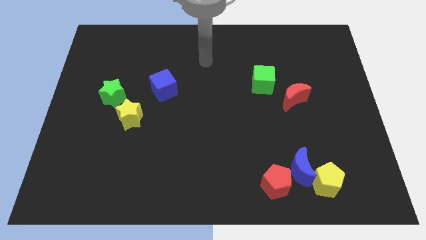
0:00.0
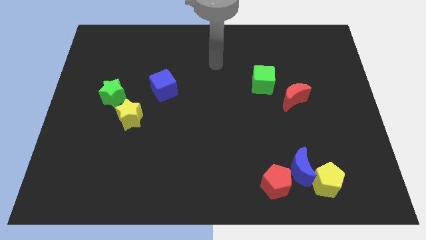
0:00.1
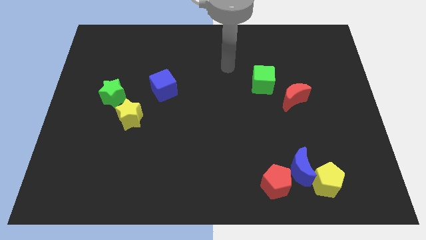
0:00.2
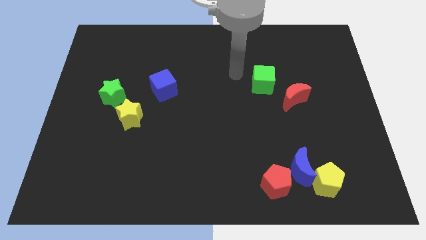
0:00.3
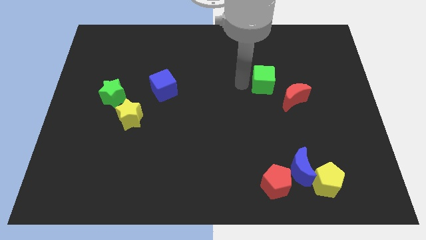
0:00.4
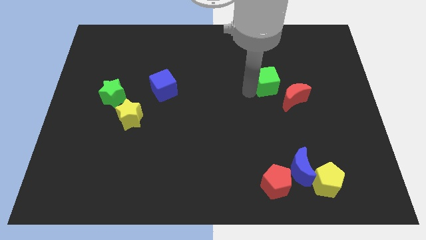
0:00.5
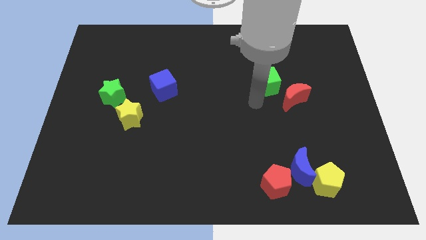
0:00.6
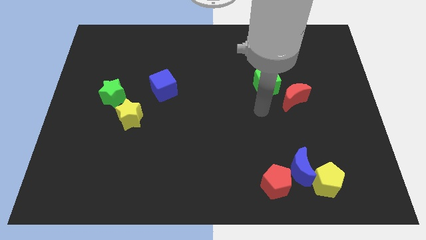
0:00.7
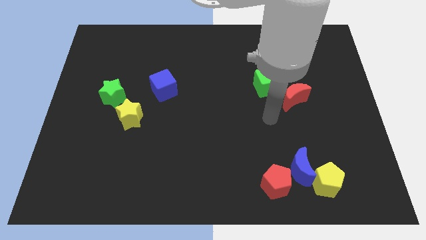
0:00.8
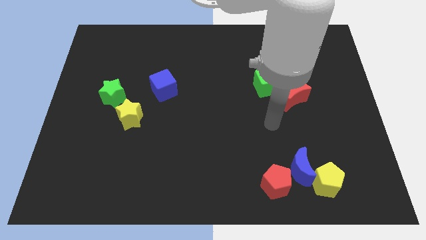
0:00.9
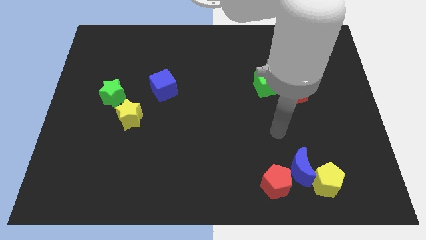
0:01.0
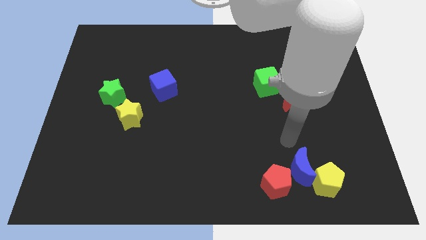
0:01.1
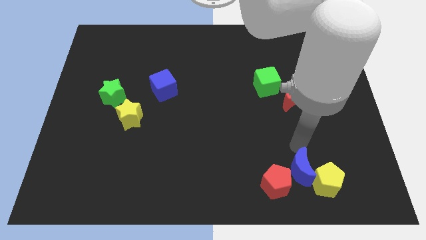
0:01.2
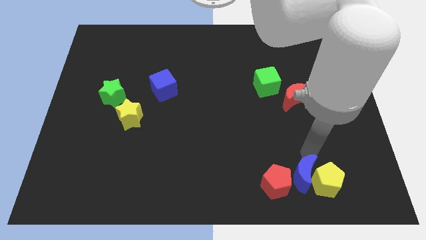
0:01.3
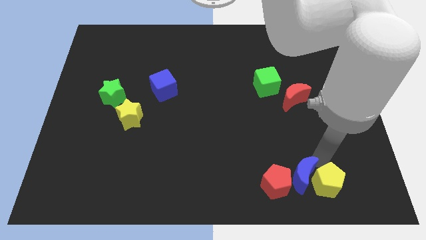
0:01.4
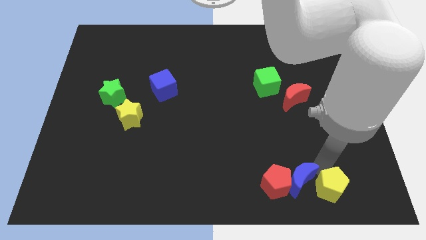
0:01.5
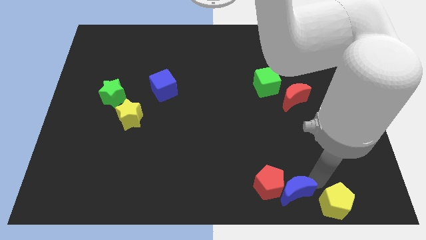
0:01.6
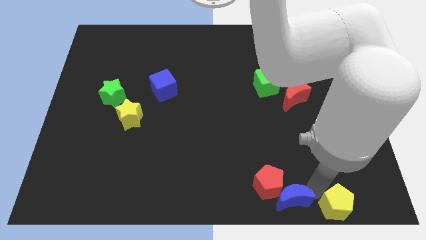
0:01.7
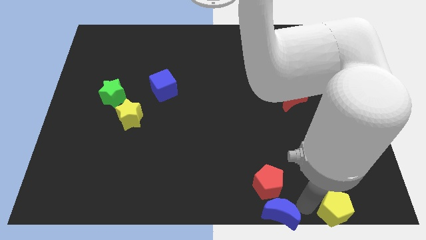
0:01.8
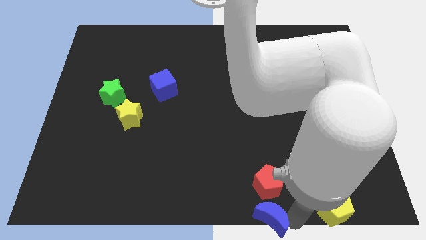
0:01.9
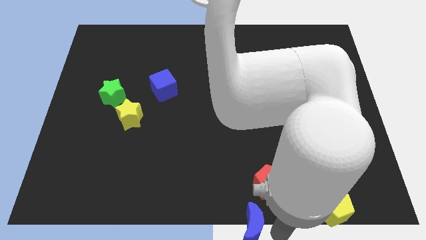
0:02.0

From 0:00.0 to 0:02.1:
separate the blue moon from the yellow pentagon and red pentagon

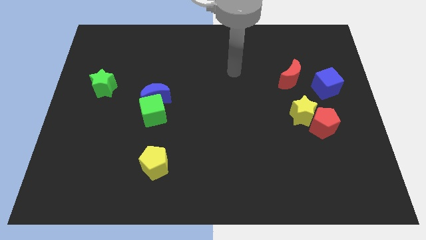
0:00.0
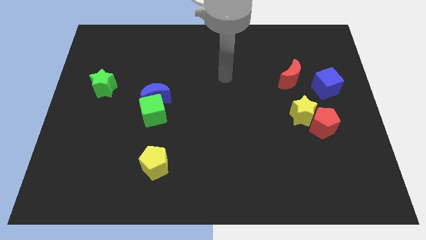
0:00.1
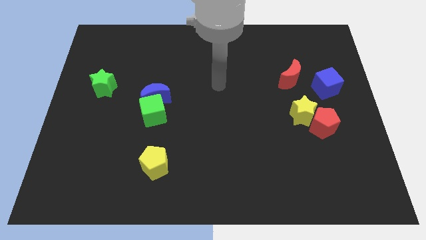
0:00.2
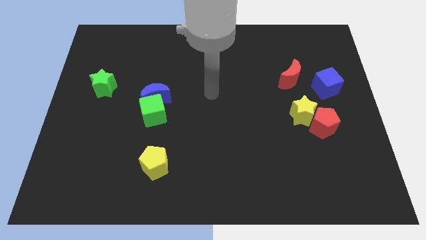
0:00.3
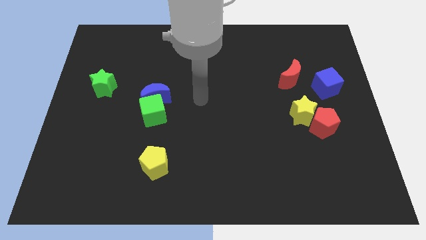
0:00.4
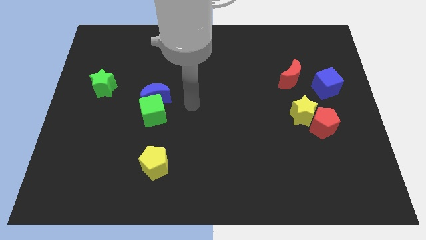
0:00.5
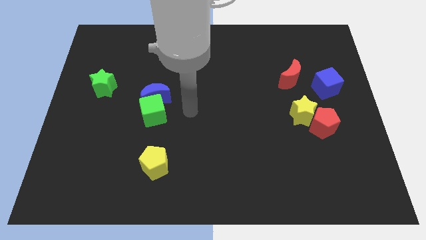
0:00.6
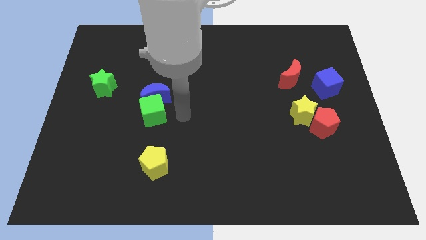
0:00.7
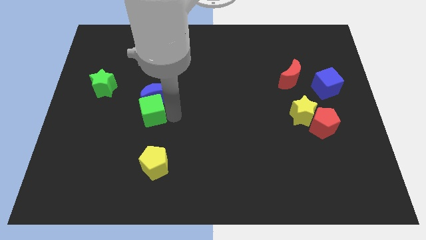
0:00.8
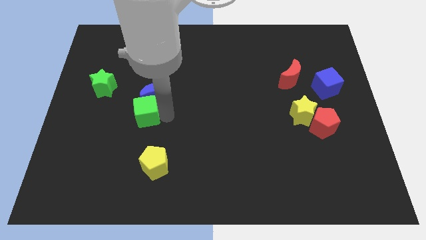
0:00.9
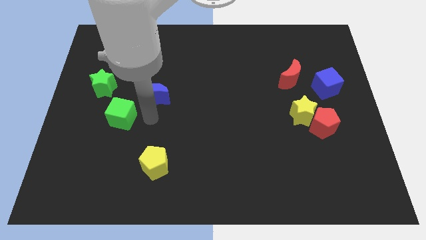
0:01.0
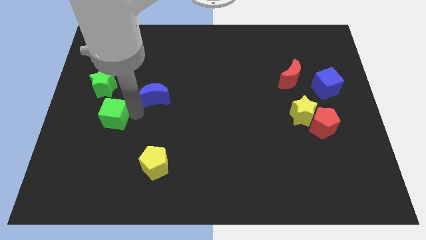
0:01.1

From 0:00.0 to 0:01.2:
move the blue moon away from the green cube

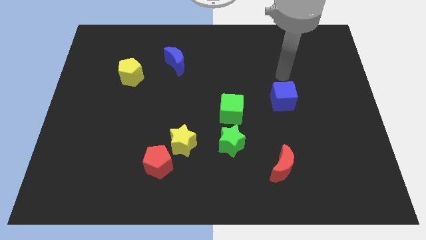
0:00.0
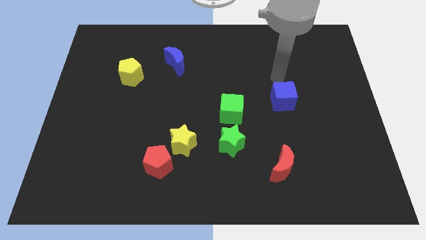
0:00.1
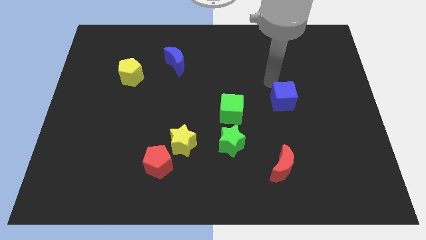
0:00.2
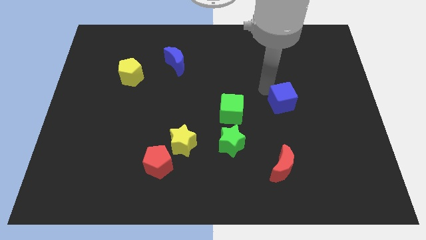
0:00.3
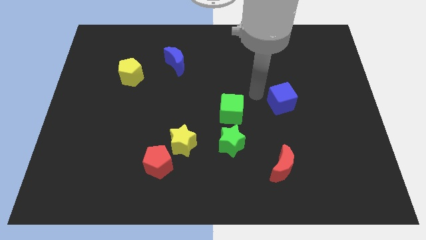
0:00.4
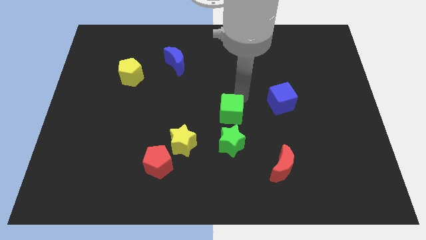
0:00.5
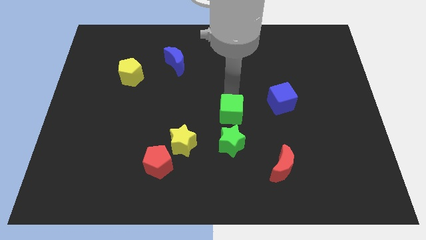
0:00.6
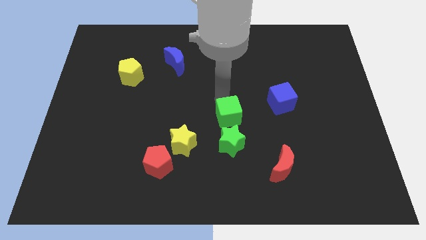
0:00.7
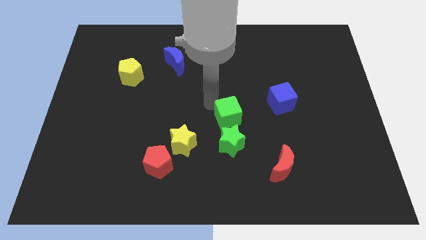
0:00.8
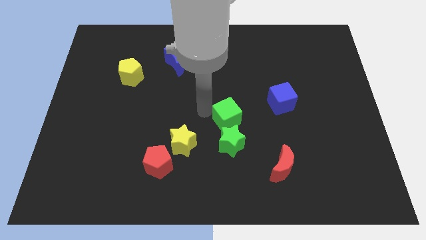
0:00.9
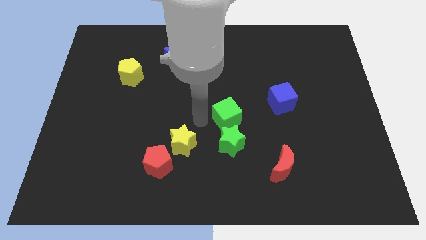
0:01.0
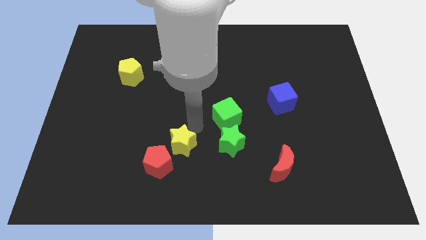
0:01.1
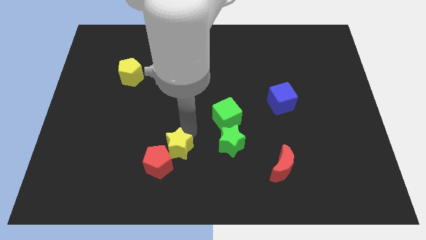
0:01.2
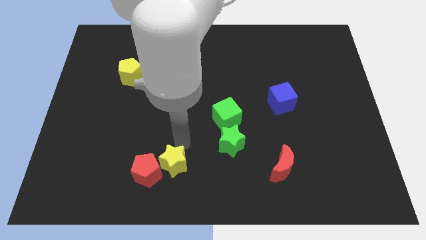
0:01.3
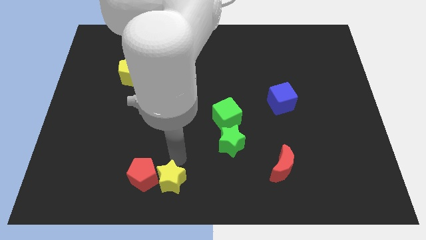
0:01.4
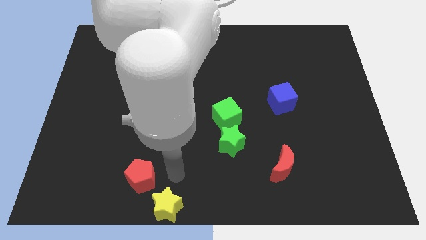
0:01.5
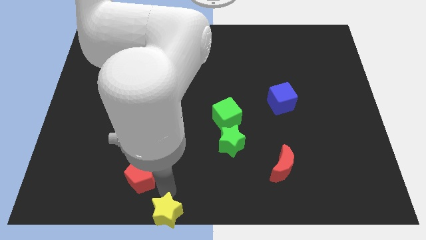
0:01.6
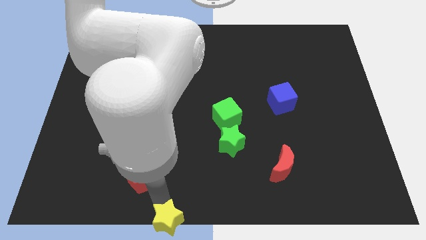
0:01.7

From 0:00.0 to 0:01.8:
move the red pentagon away from the yellow star

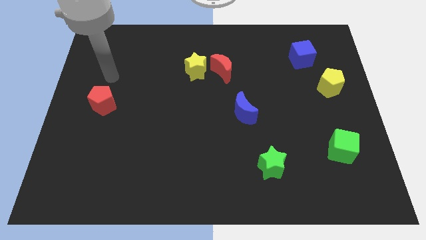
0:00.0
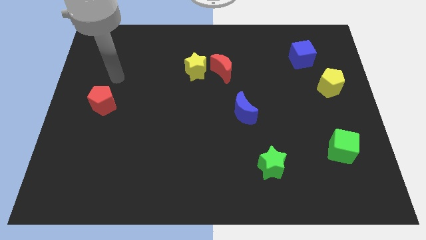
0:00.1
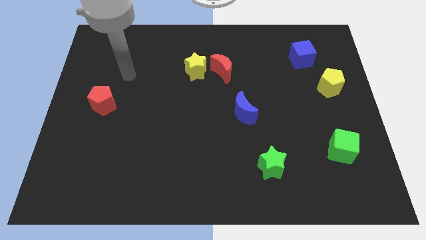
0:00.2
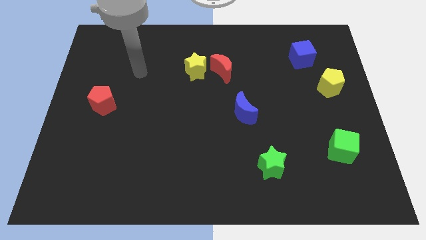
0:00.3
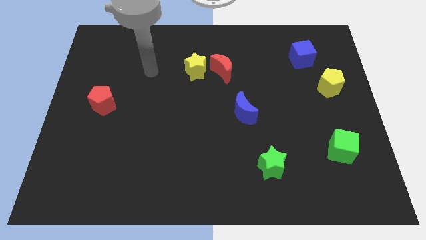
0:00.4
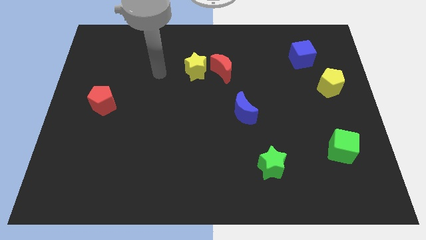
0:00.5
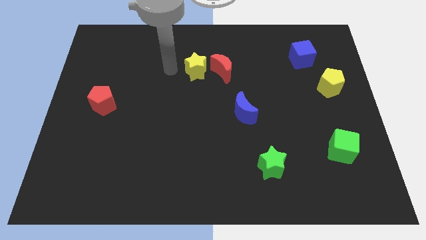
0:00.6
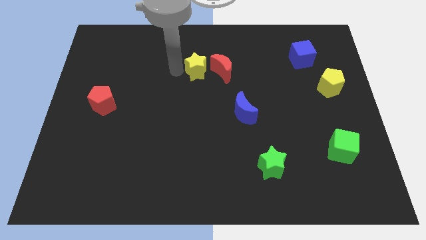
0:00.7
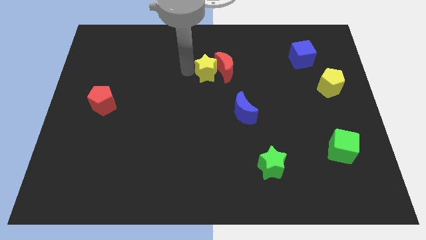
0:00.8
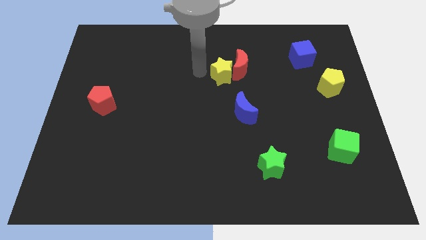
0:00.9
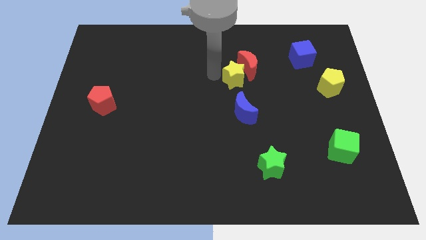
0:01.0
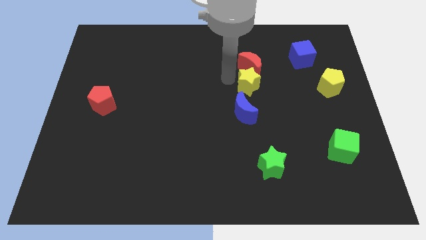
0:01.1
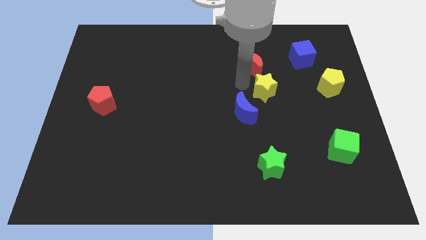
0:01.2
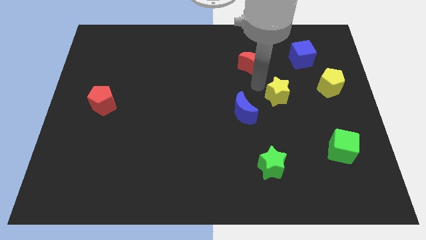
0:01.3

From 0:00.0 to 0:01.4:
pull the red moon apart from the yellow star

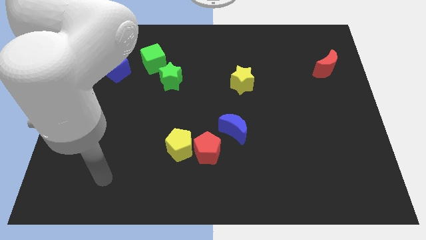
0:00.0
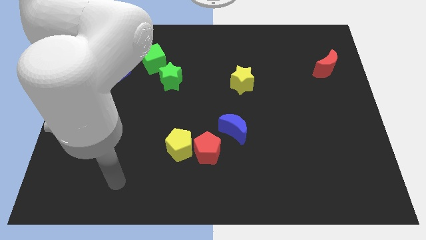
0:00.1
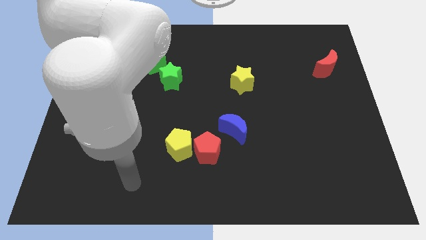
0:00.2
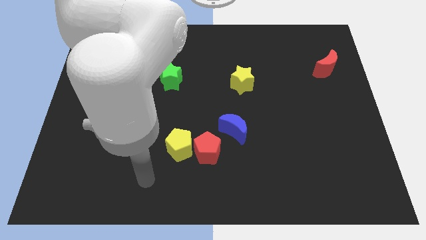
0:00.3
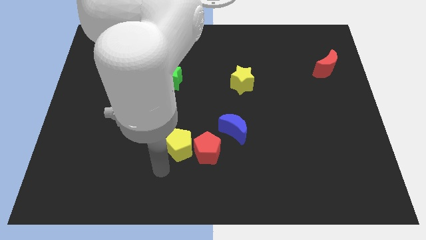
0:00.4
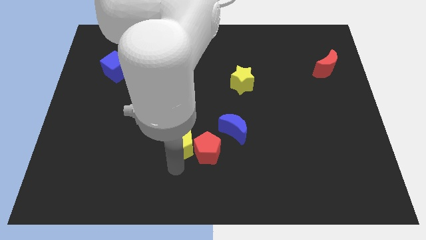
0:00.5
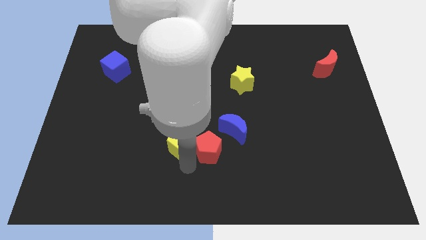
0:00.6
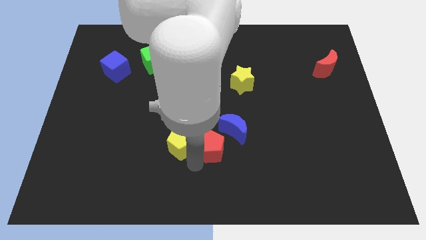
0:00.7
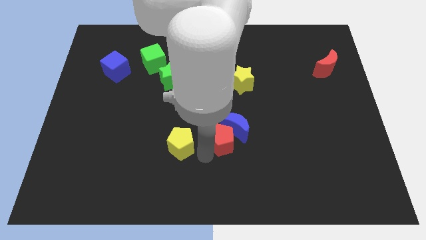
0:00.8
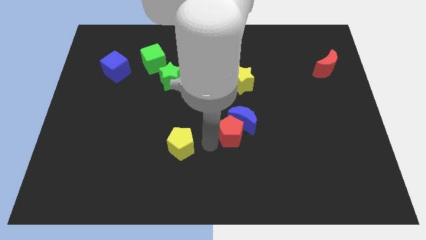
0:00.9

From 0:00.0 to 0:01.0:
pull the yellow pentagon apart from the red pentagon

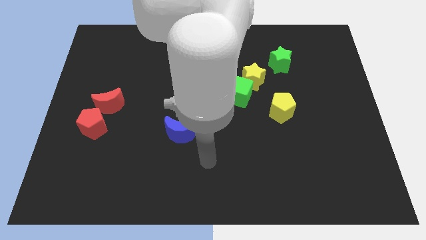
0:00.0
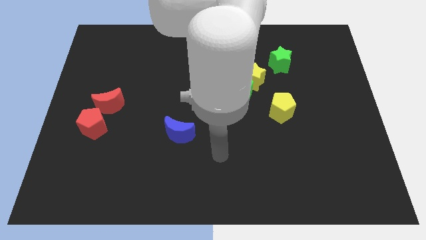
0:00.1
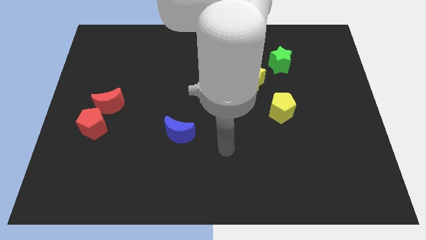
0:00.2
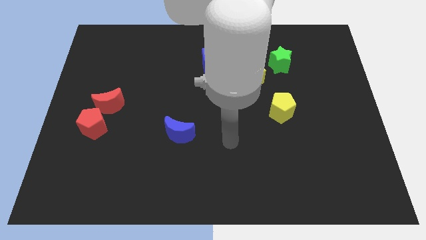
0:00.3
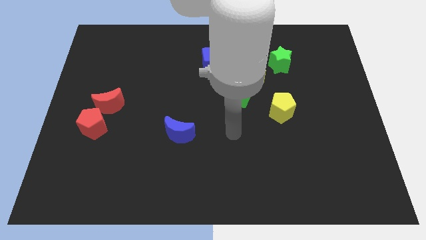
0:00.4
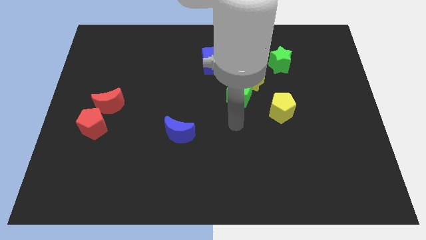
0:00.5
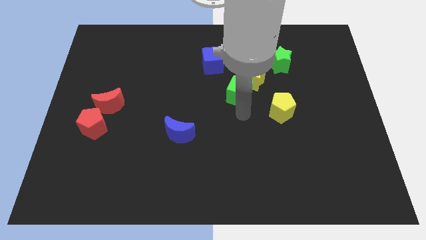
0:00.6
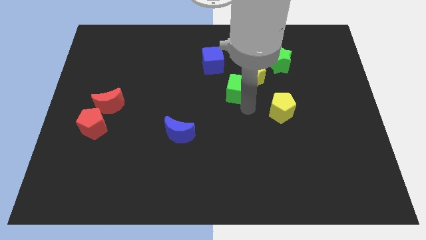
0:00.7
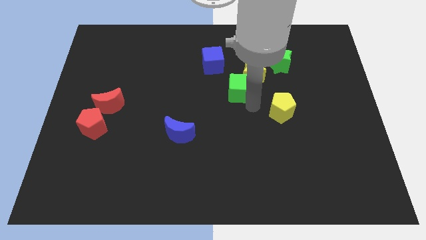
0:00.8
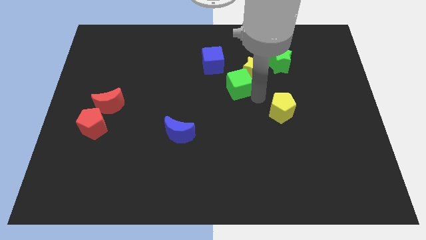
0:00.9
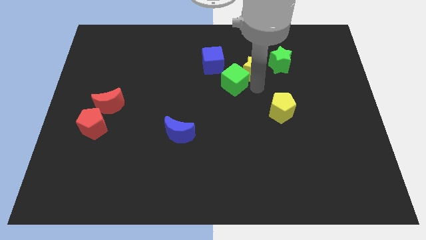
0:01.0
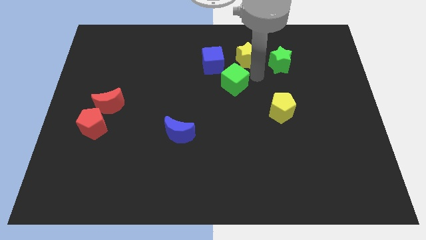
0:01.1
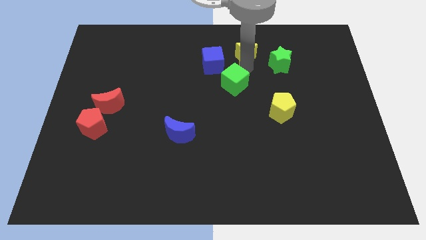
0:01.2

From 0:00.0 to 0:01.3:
separate the green cube from the yellow star

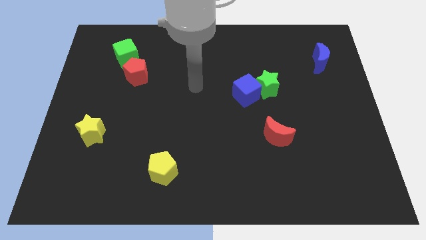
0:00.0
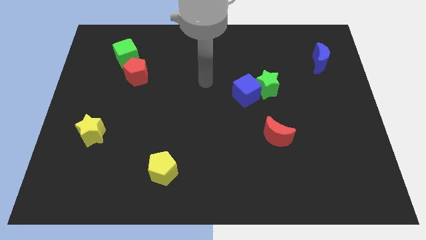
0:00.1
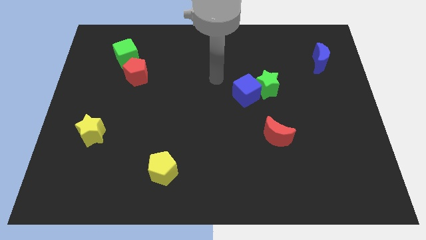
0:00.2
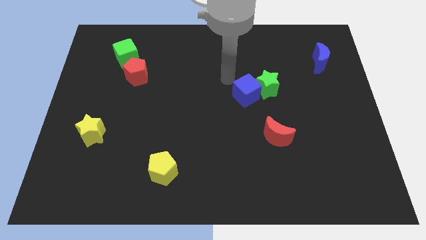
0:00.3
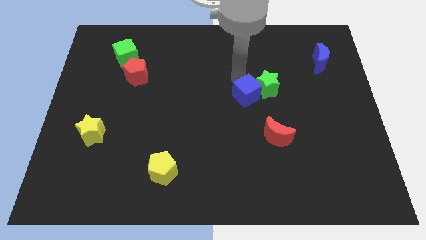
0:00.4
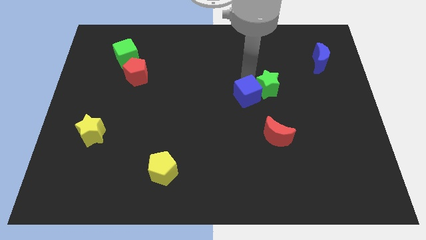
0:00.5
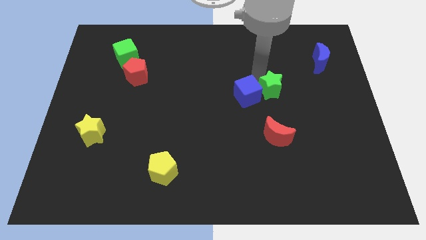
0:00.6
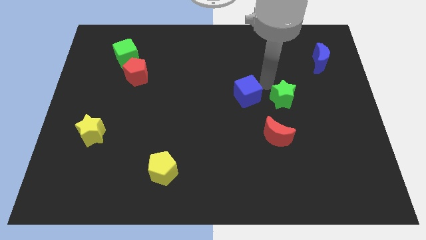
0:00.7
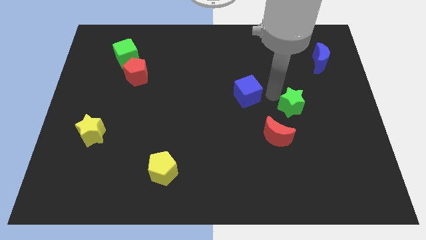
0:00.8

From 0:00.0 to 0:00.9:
separate the blue cube from the green star
